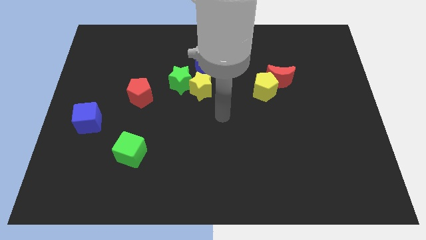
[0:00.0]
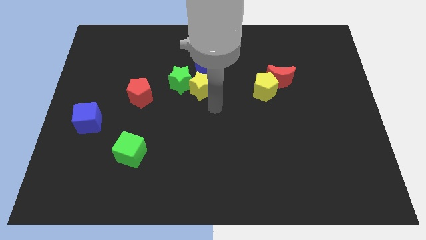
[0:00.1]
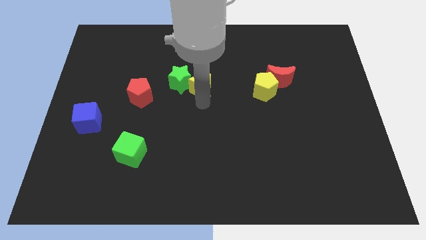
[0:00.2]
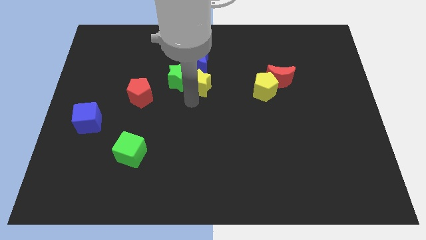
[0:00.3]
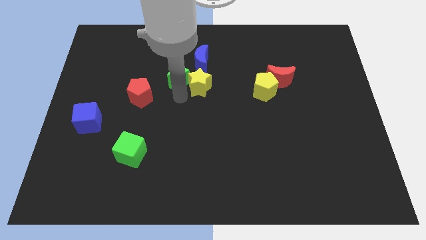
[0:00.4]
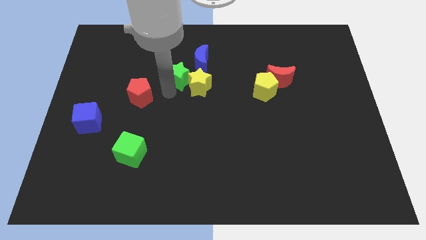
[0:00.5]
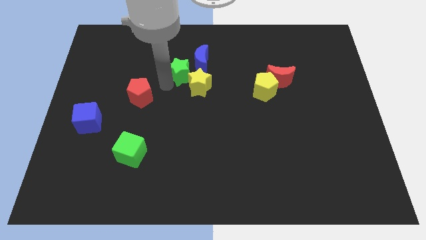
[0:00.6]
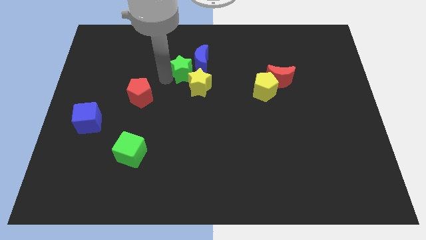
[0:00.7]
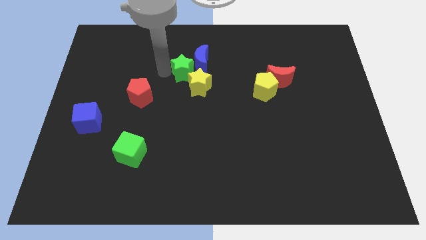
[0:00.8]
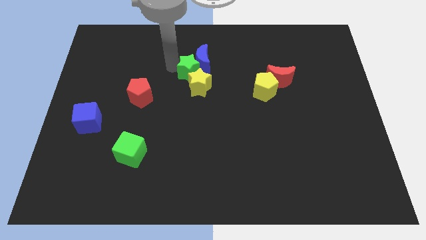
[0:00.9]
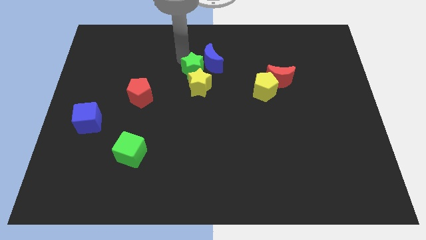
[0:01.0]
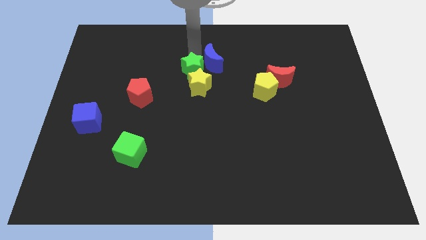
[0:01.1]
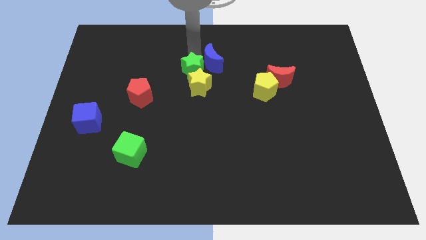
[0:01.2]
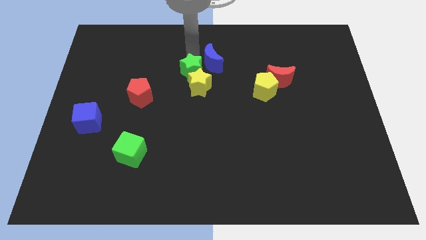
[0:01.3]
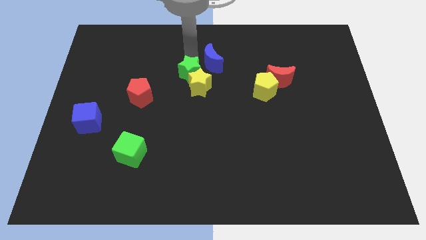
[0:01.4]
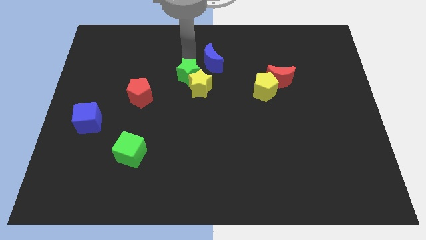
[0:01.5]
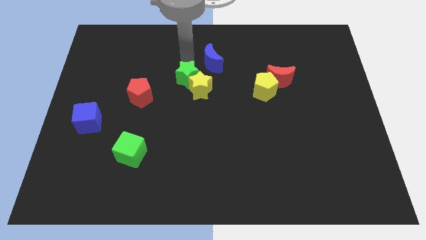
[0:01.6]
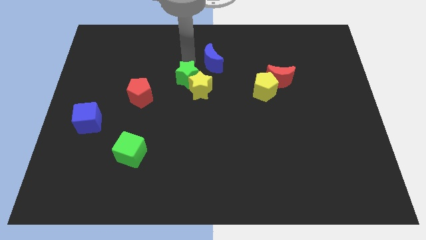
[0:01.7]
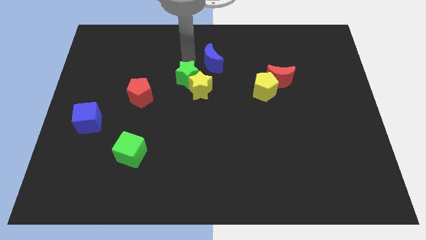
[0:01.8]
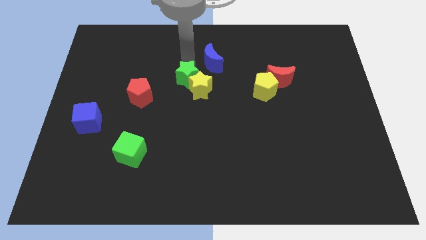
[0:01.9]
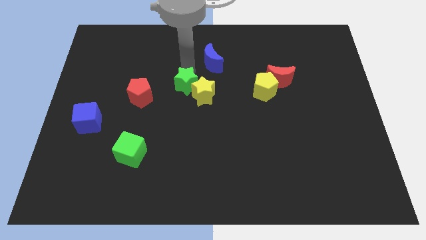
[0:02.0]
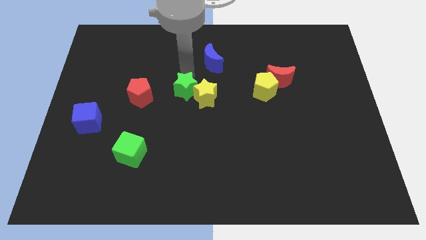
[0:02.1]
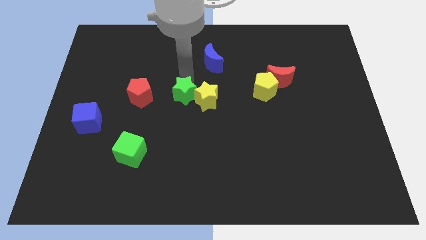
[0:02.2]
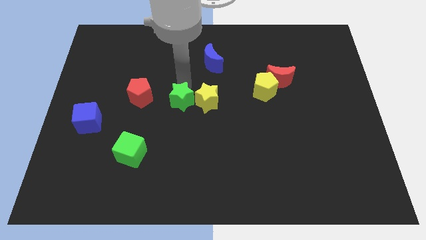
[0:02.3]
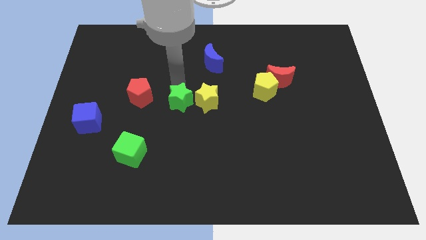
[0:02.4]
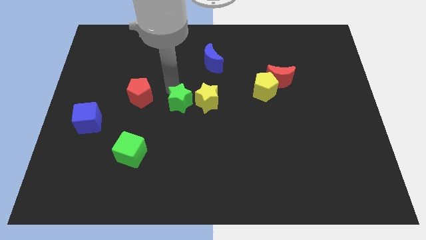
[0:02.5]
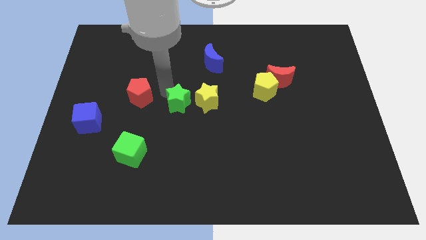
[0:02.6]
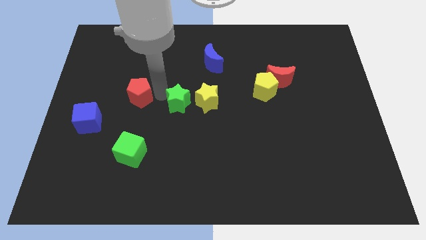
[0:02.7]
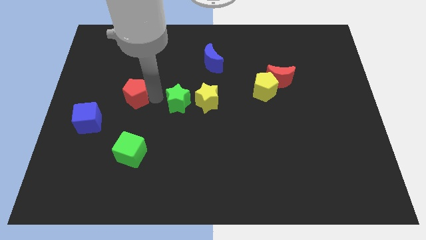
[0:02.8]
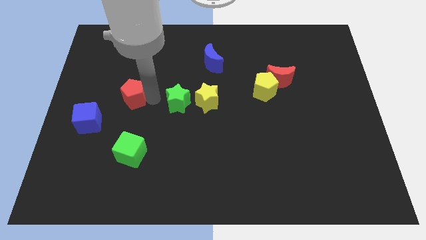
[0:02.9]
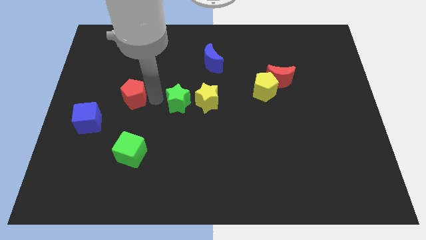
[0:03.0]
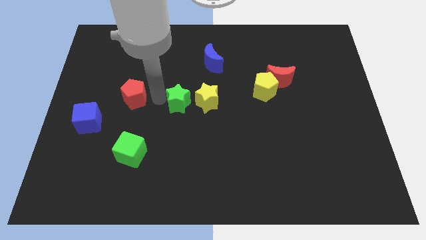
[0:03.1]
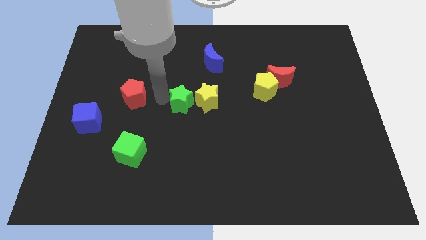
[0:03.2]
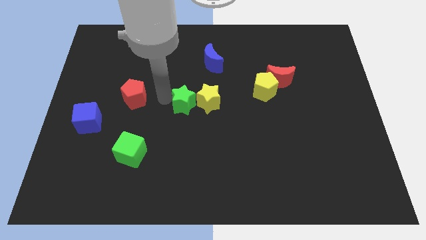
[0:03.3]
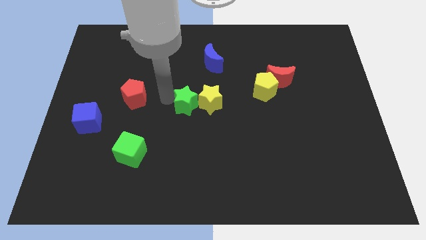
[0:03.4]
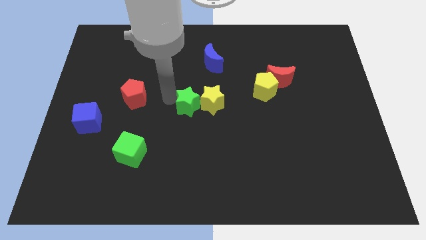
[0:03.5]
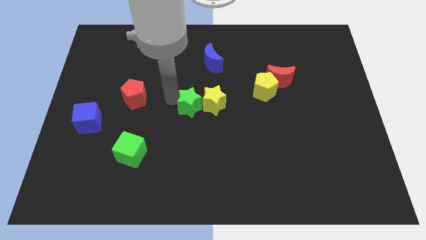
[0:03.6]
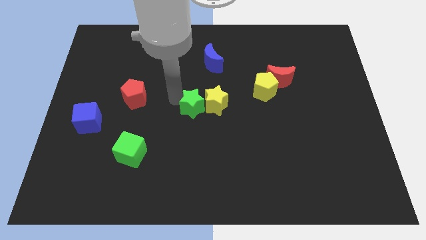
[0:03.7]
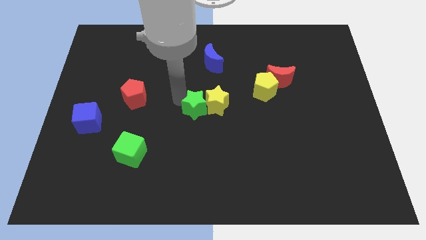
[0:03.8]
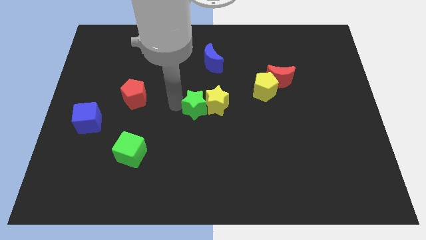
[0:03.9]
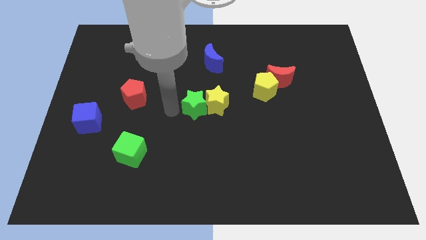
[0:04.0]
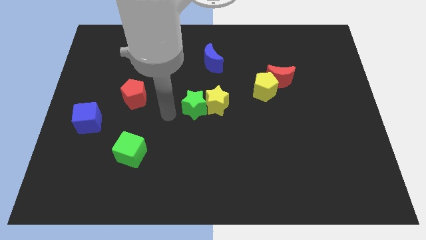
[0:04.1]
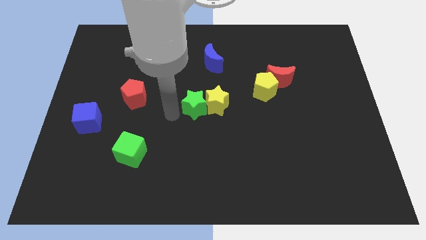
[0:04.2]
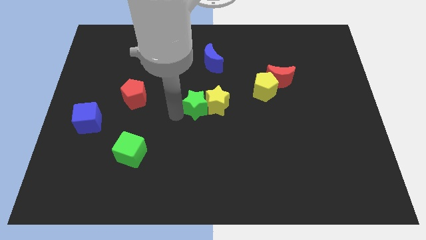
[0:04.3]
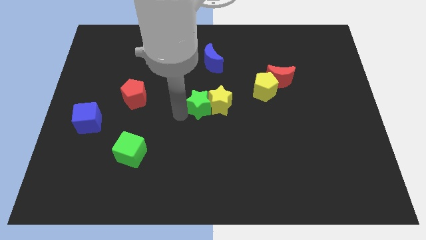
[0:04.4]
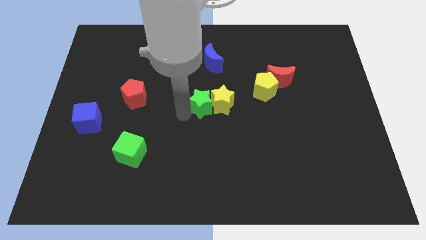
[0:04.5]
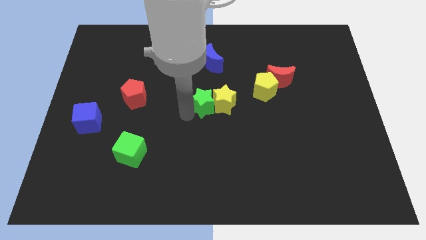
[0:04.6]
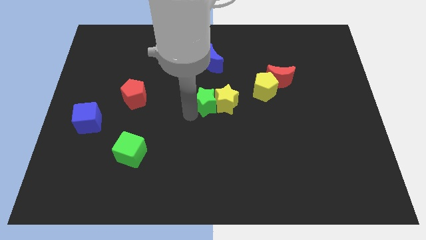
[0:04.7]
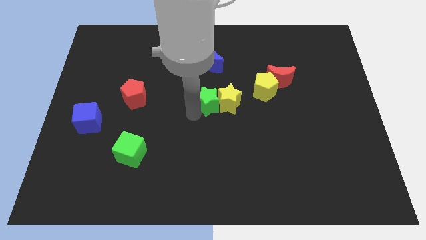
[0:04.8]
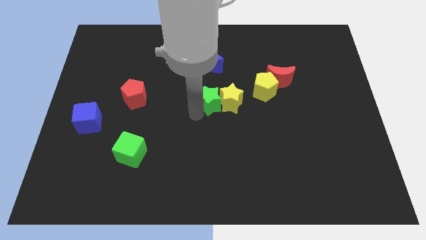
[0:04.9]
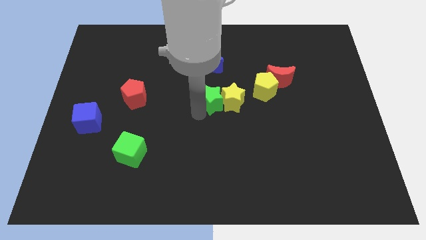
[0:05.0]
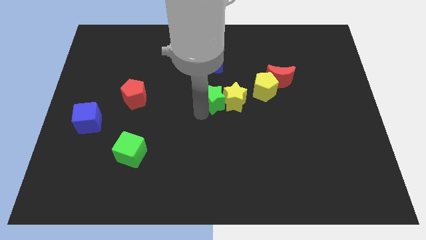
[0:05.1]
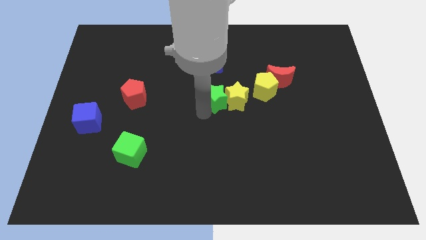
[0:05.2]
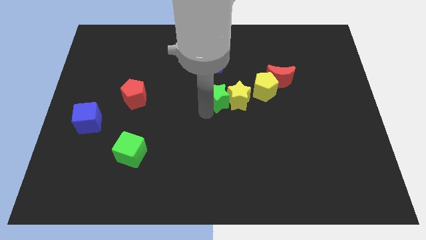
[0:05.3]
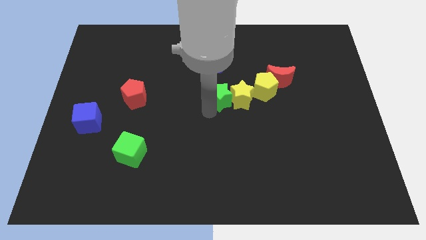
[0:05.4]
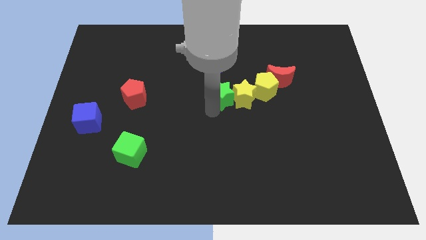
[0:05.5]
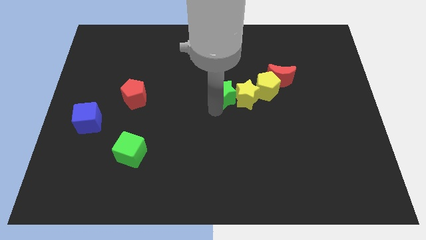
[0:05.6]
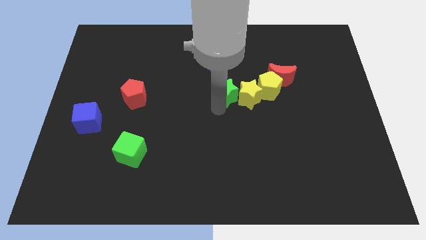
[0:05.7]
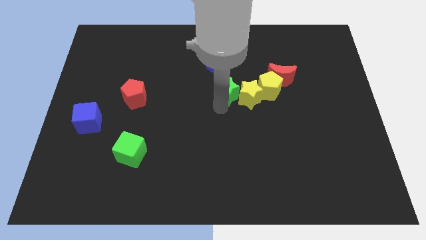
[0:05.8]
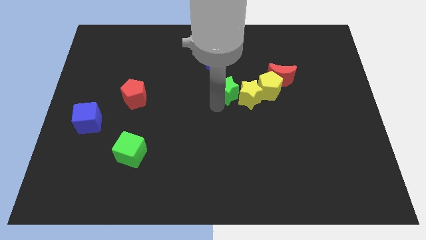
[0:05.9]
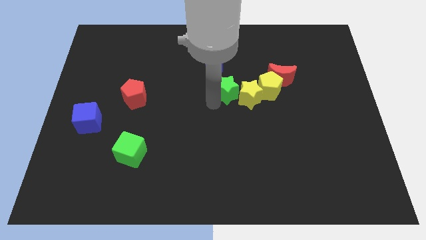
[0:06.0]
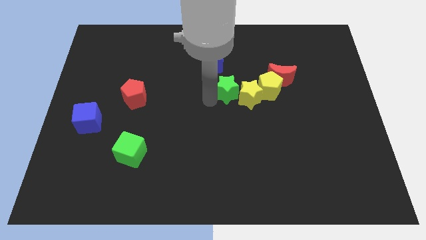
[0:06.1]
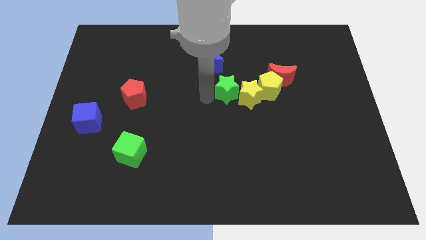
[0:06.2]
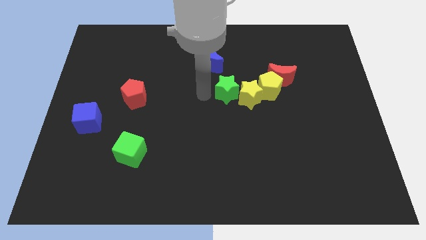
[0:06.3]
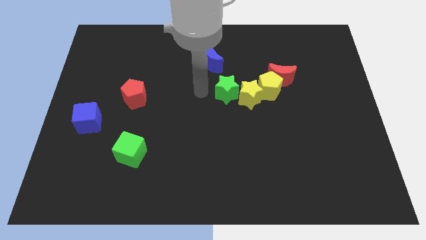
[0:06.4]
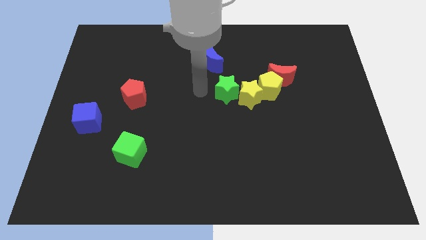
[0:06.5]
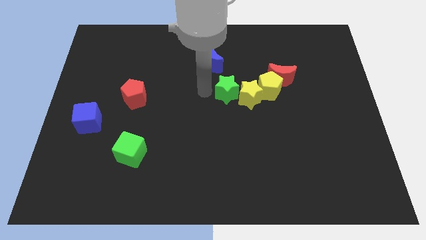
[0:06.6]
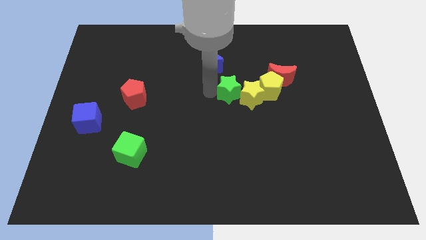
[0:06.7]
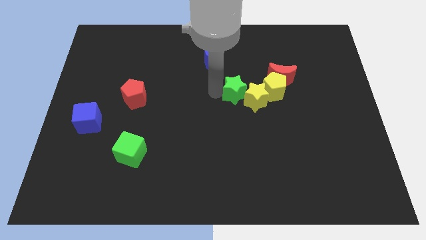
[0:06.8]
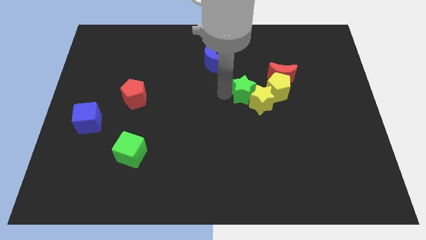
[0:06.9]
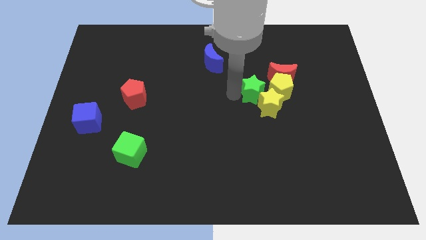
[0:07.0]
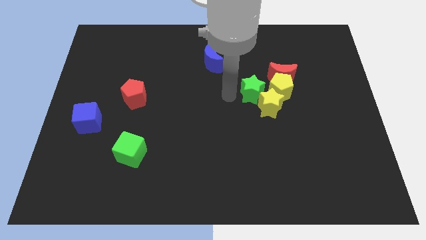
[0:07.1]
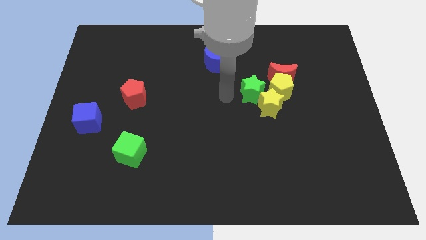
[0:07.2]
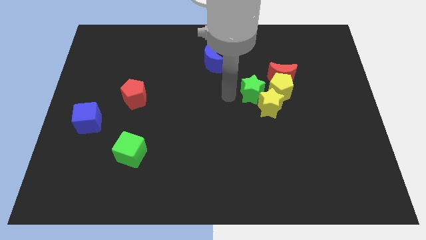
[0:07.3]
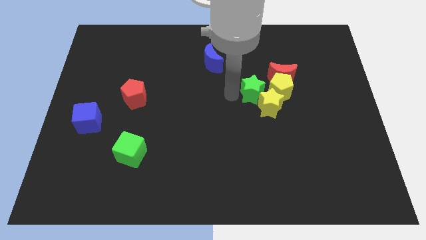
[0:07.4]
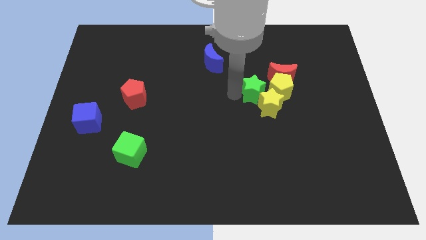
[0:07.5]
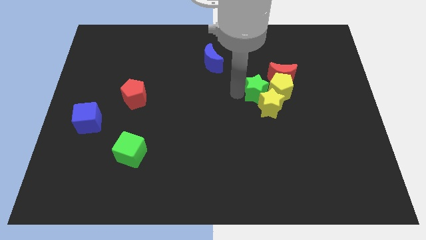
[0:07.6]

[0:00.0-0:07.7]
move the green star next to the yellow pentagon
